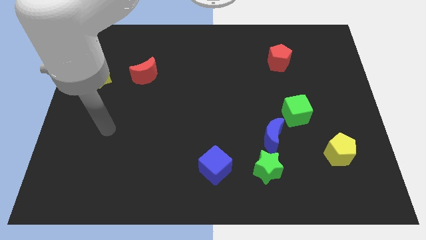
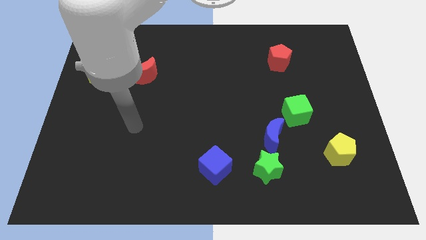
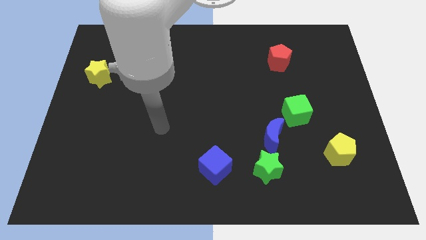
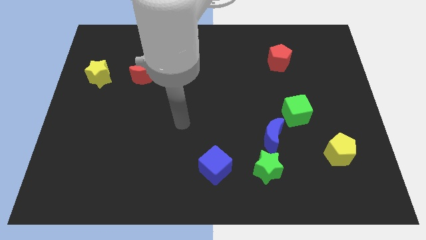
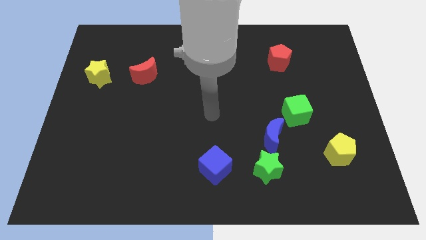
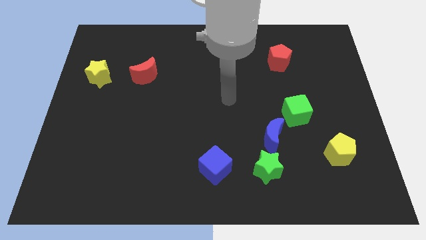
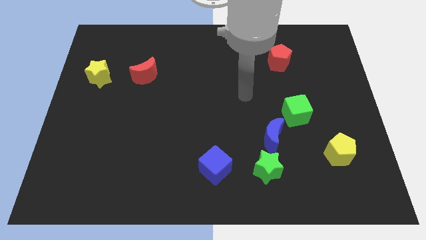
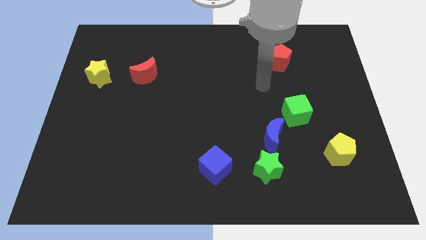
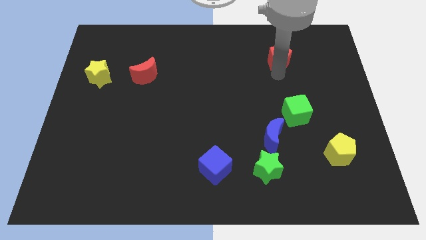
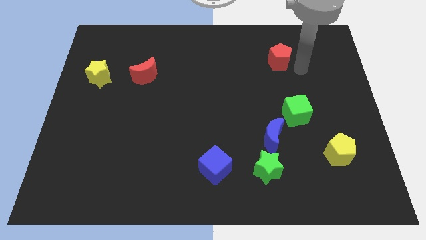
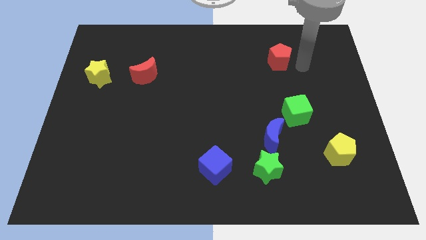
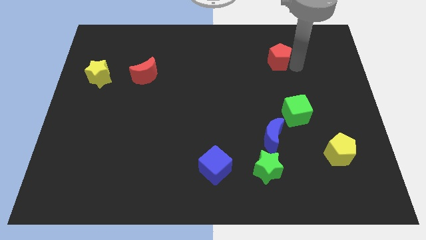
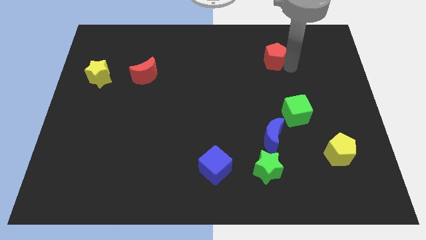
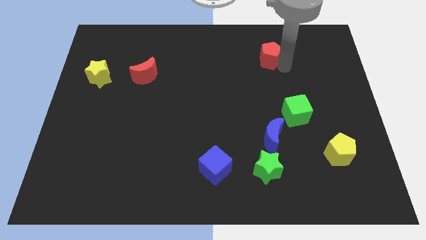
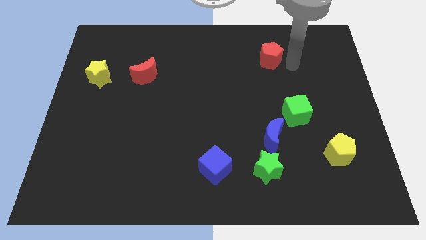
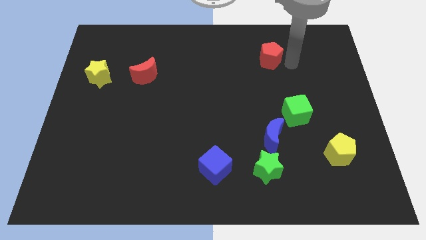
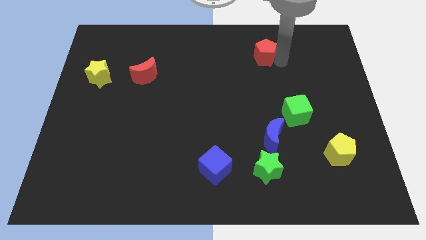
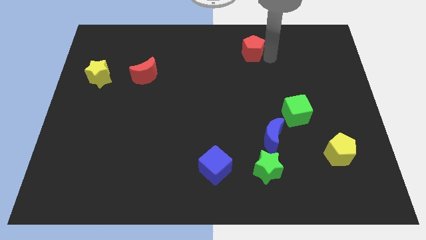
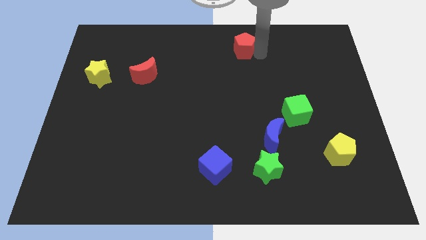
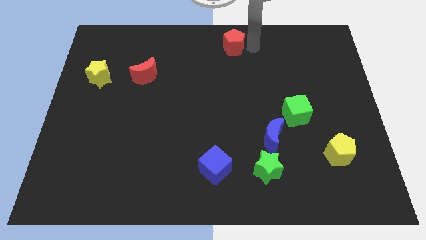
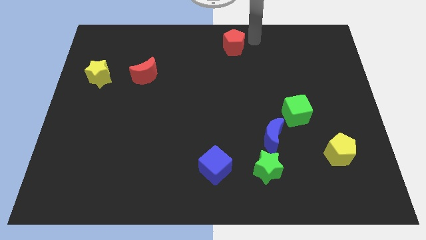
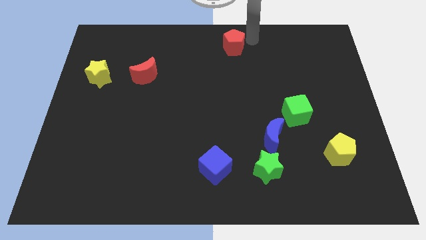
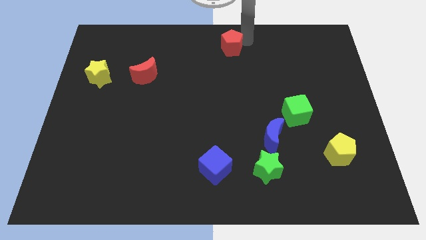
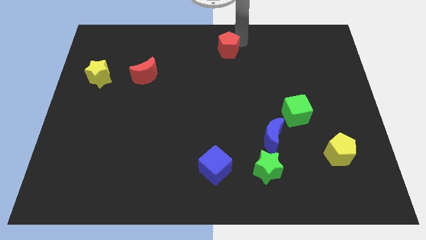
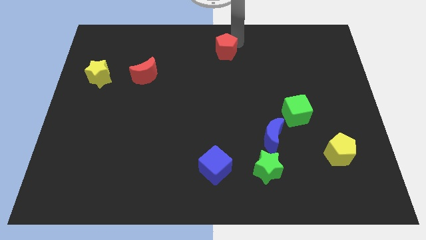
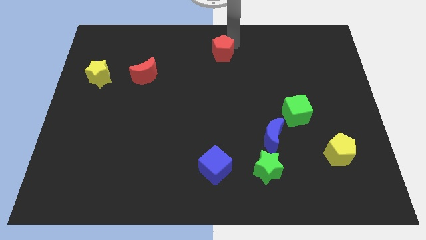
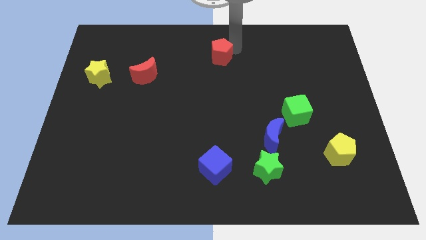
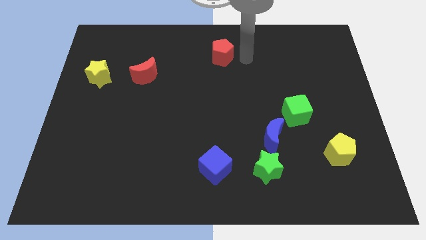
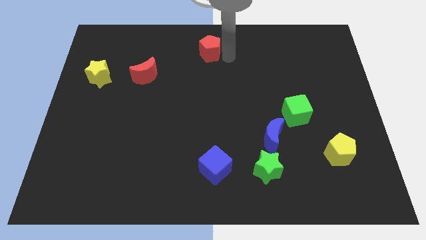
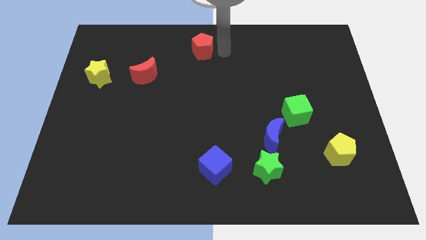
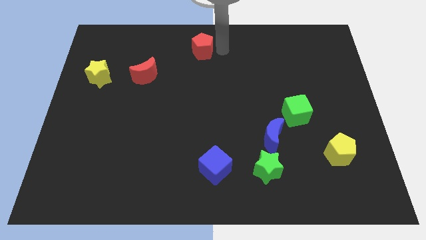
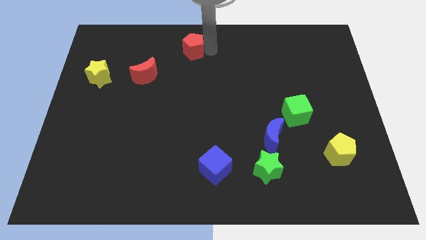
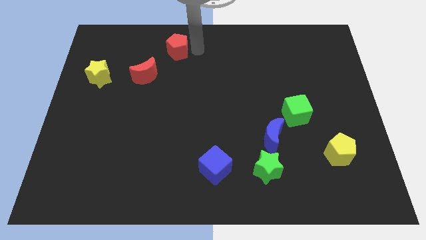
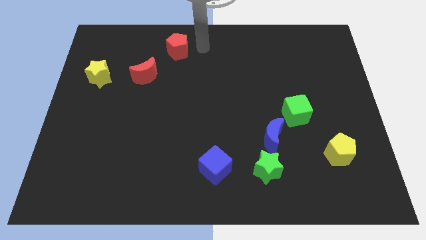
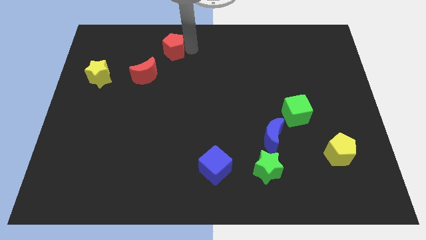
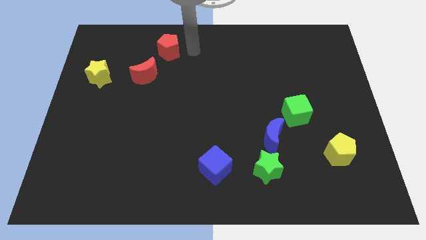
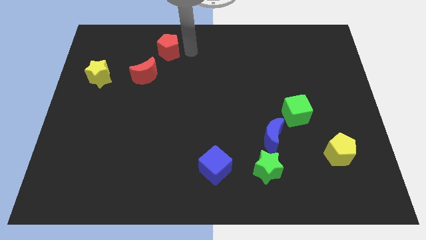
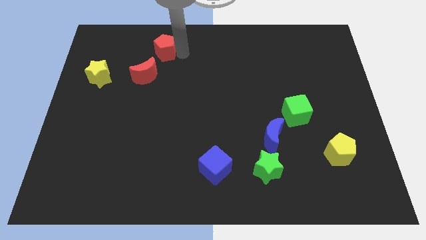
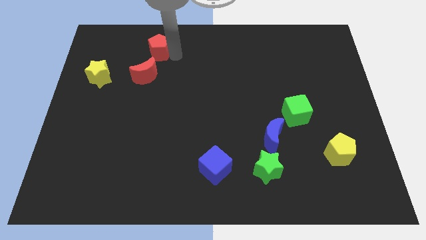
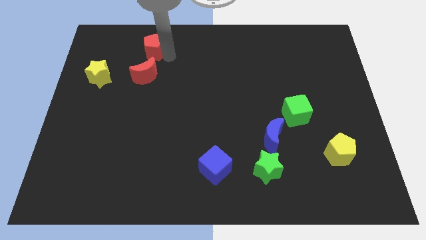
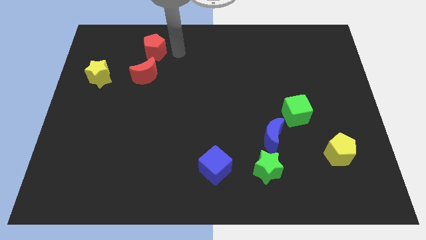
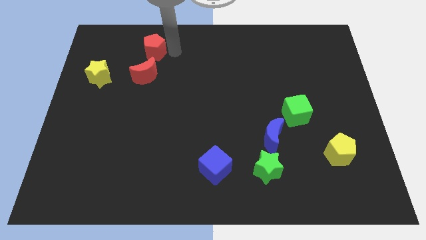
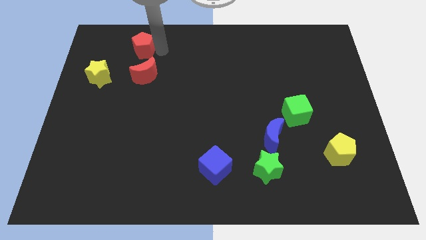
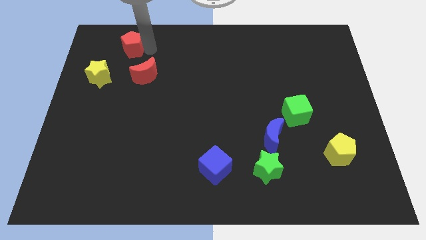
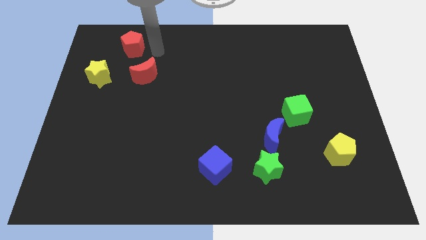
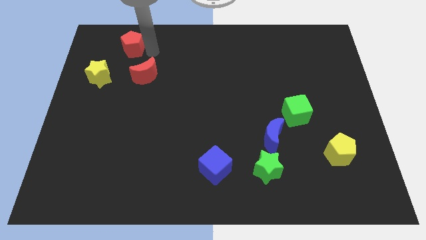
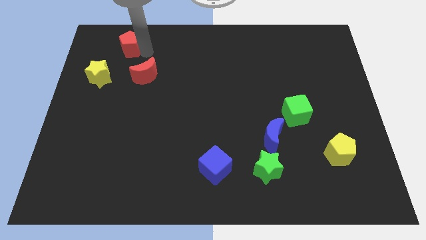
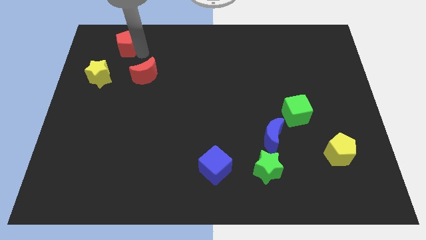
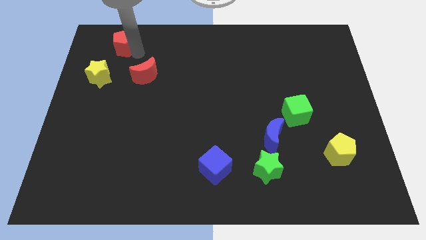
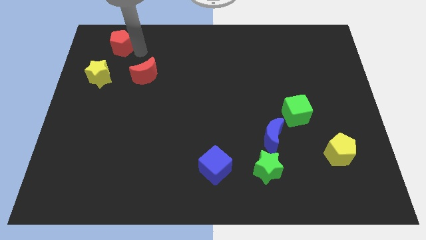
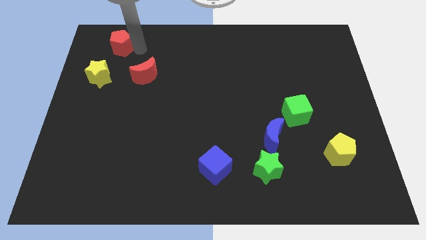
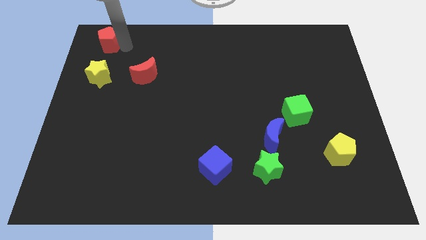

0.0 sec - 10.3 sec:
put the red pentagon to the upper left corner

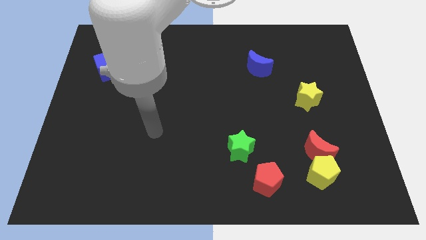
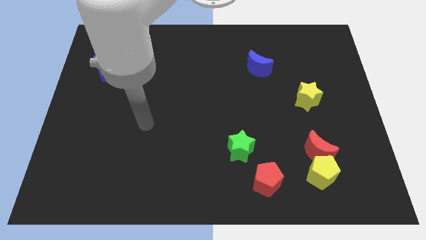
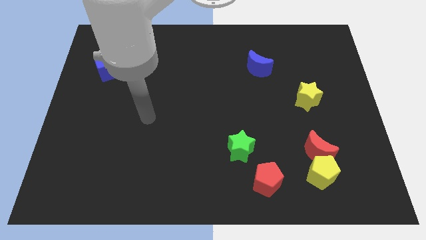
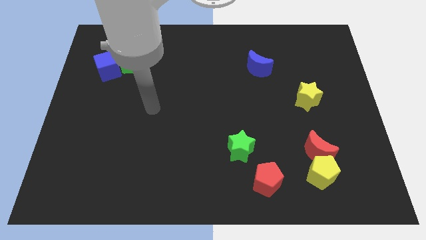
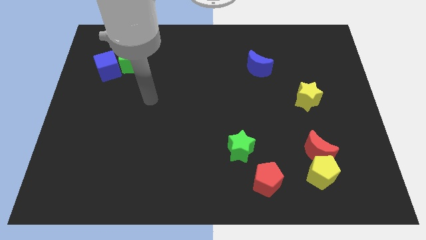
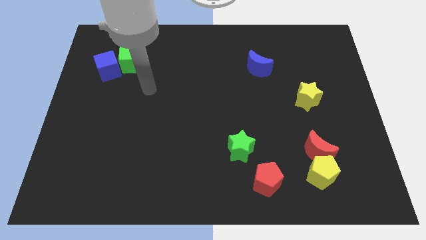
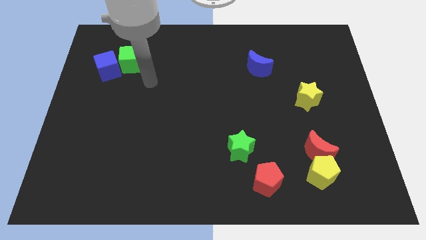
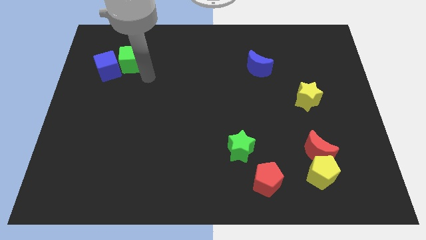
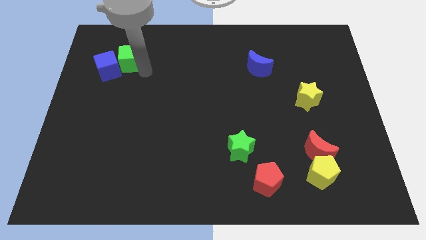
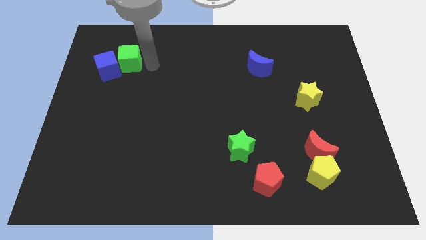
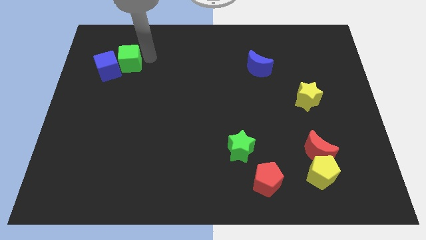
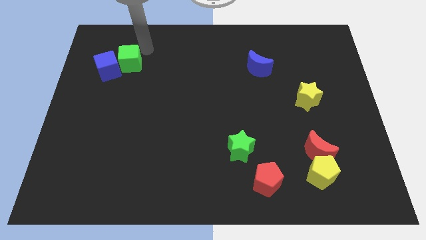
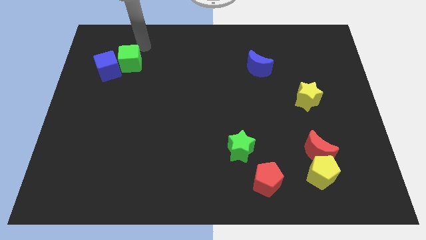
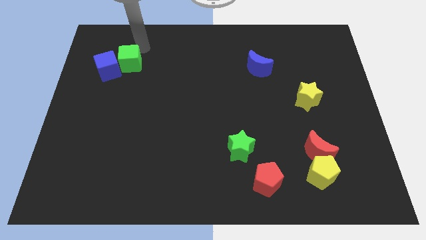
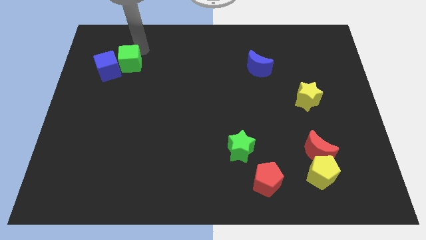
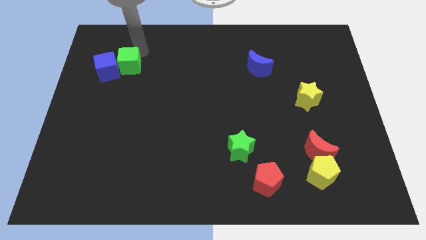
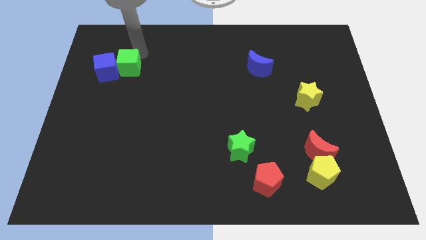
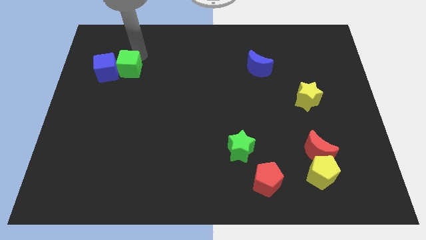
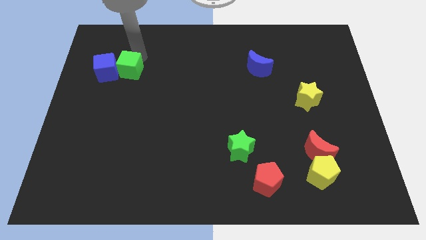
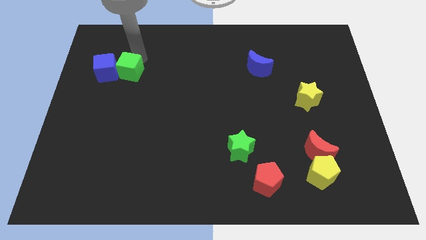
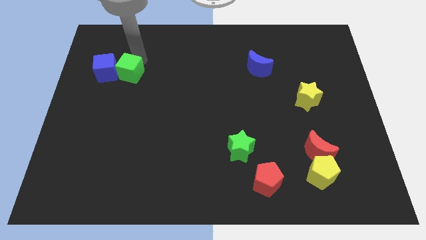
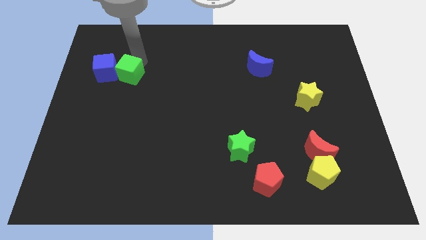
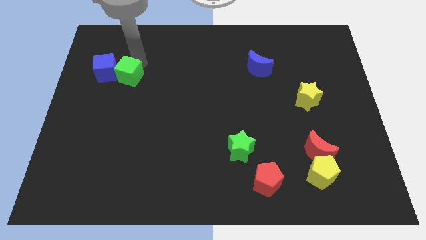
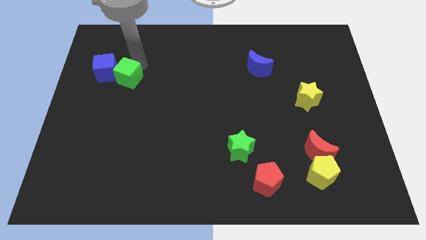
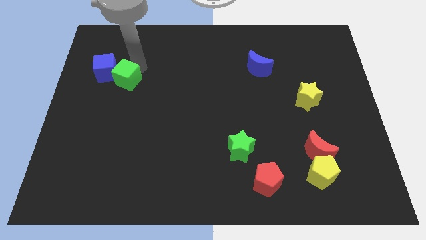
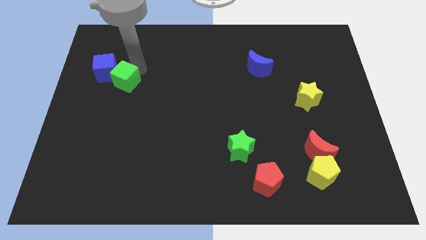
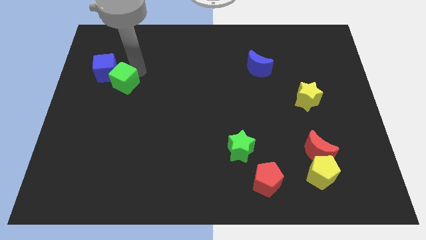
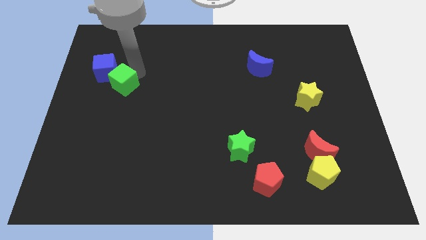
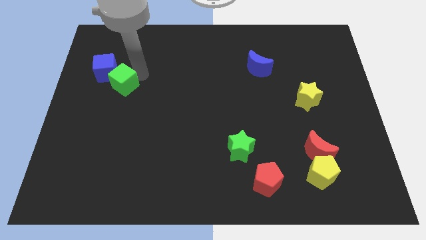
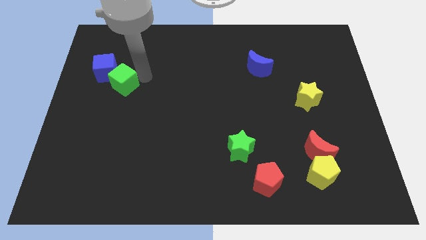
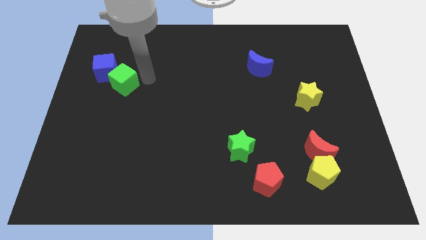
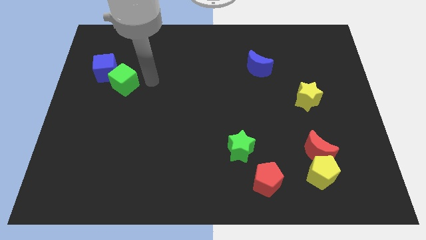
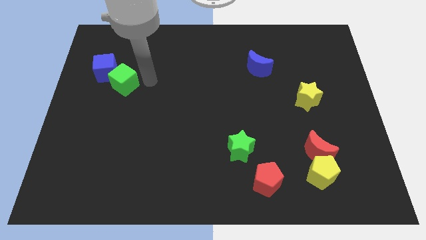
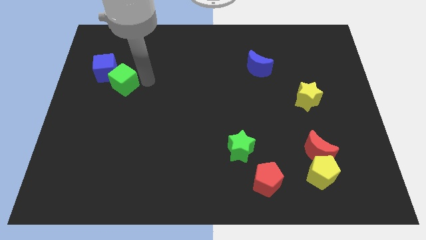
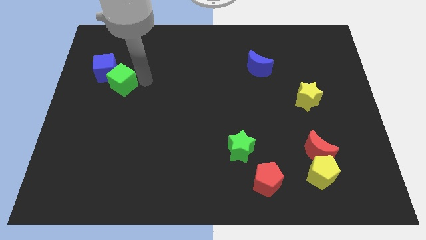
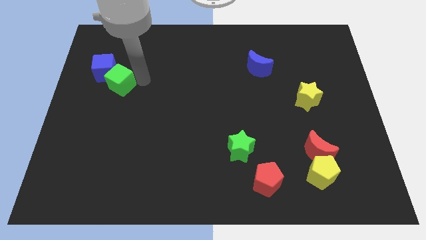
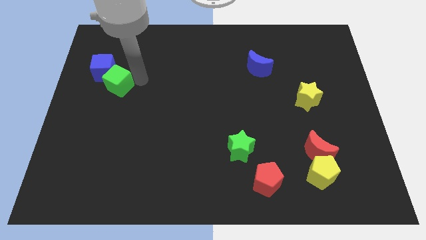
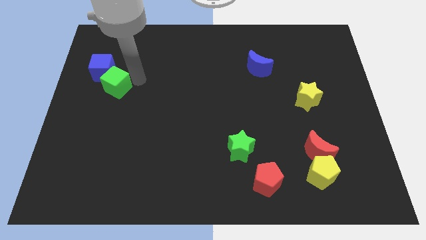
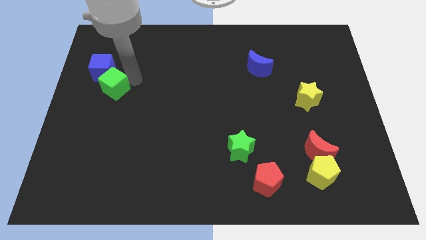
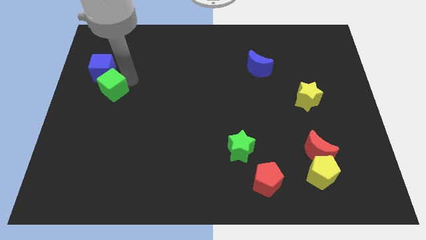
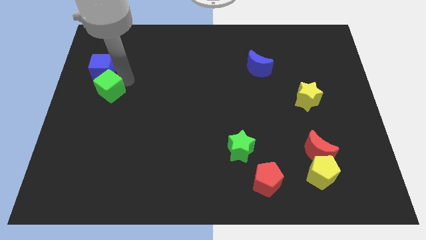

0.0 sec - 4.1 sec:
put the green cube to the center left
